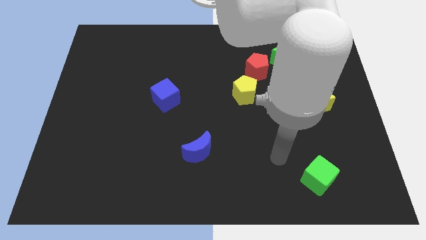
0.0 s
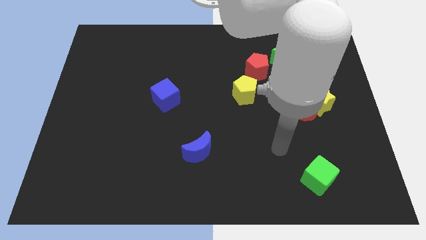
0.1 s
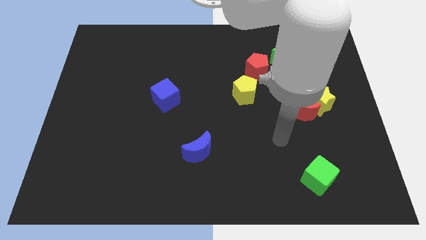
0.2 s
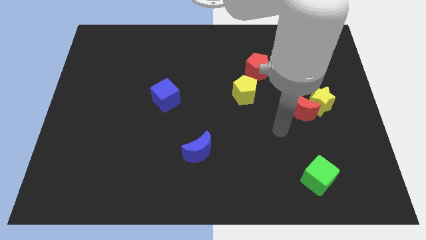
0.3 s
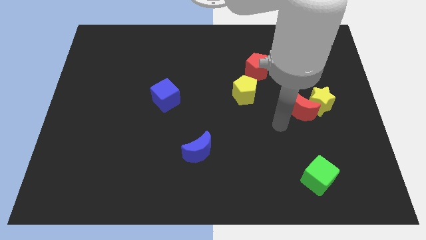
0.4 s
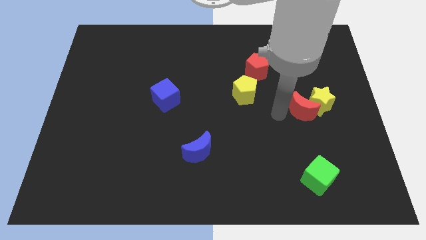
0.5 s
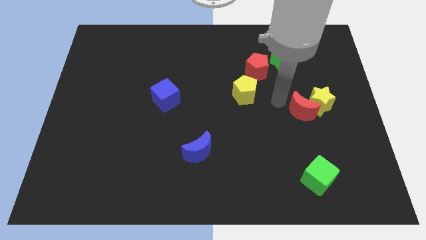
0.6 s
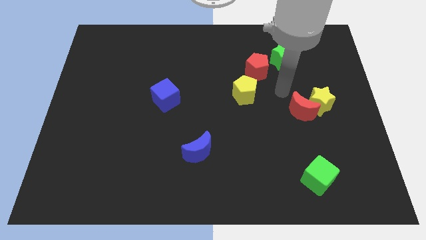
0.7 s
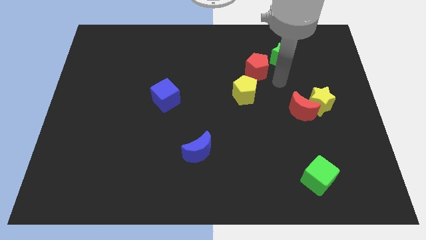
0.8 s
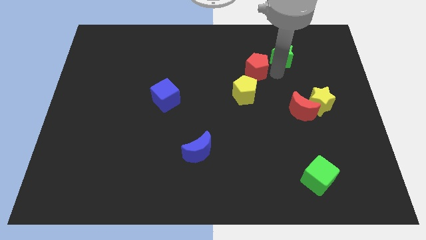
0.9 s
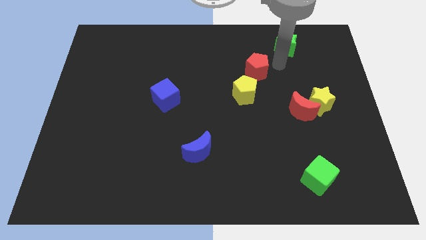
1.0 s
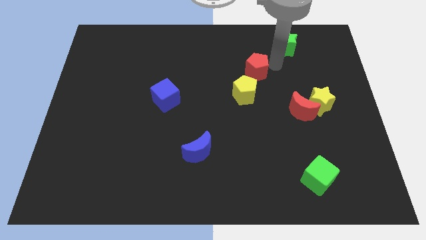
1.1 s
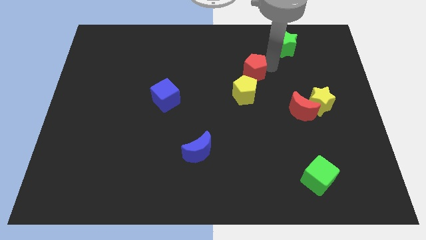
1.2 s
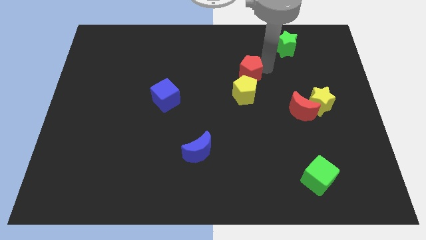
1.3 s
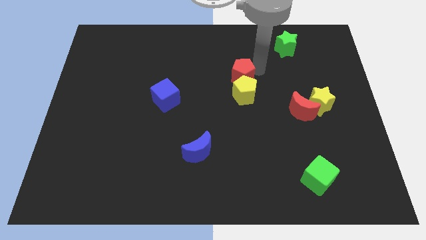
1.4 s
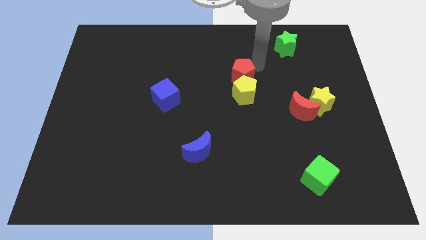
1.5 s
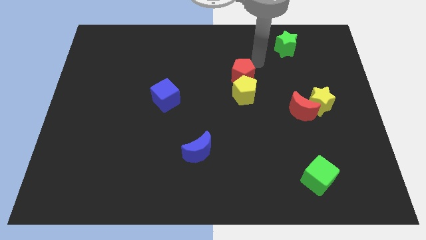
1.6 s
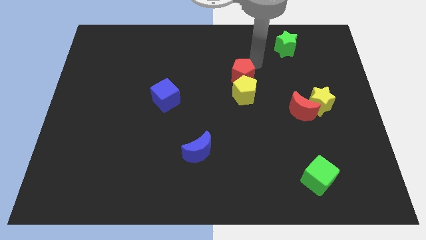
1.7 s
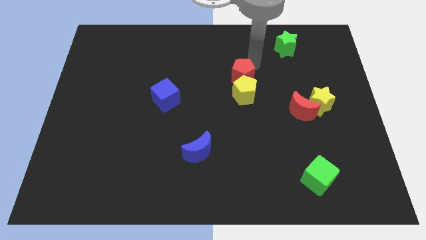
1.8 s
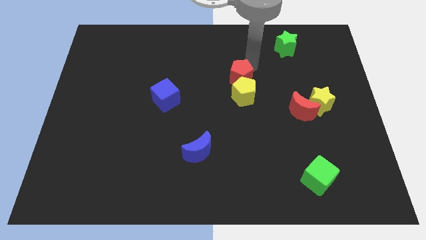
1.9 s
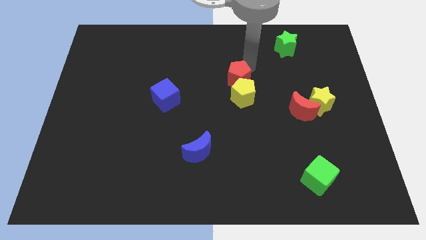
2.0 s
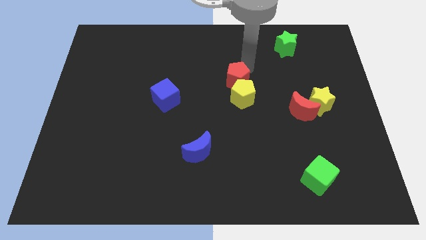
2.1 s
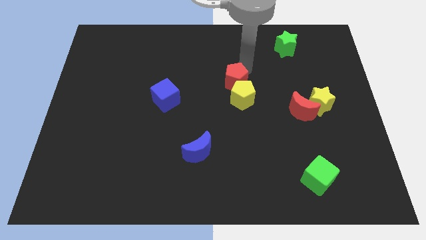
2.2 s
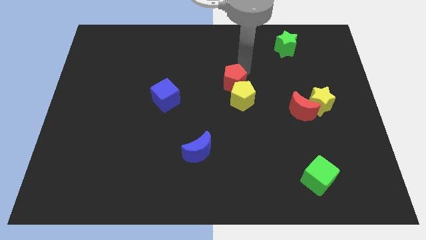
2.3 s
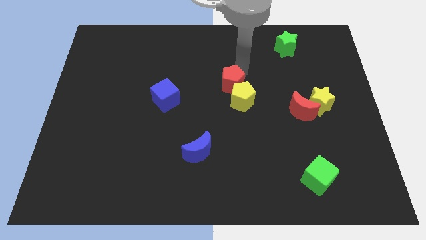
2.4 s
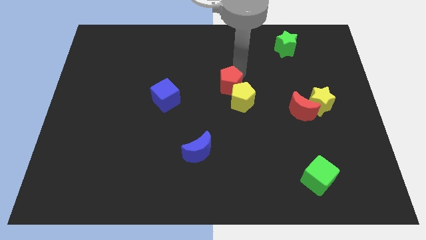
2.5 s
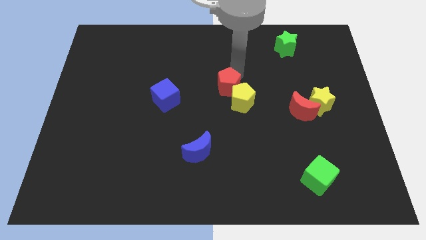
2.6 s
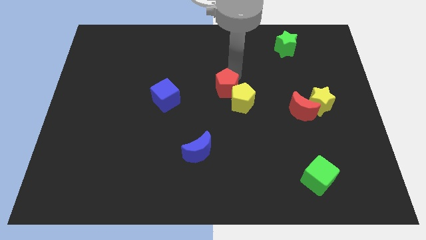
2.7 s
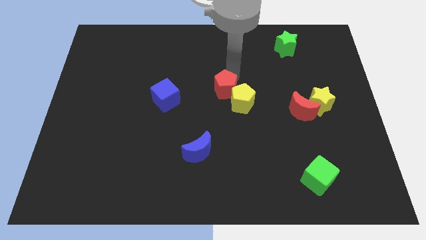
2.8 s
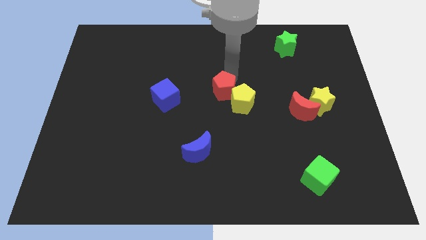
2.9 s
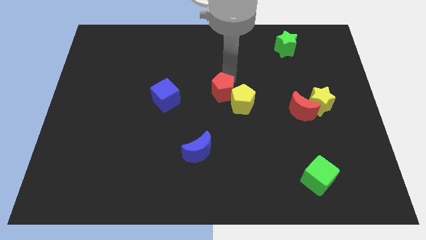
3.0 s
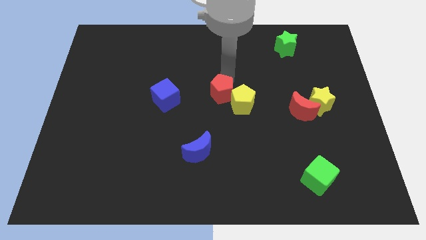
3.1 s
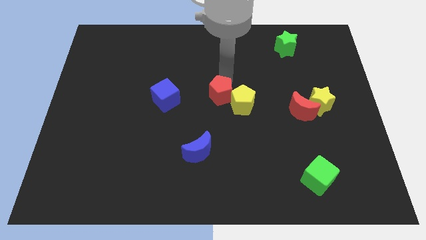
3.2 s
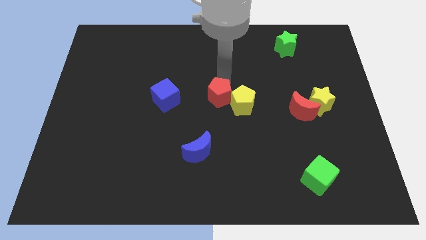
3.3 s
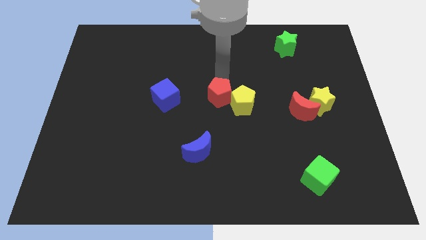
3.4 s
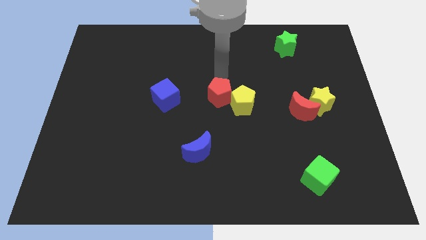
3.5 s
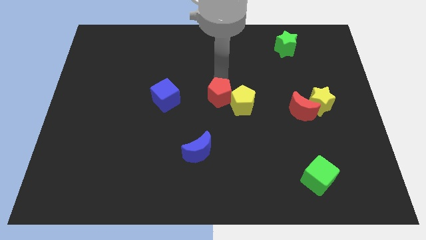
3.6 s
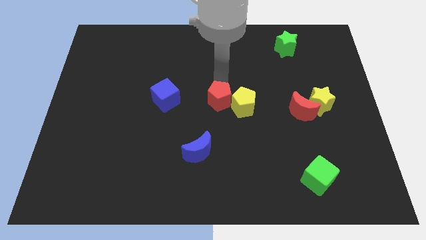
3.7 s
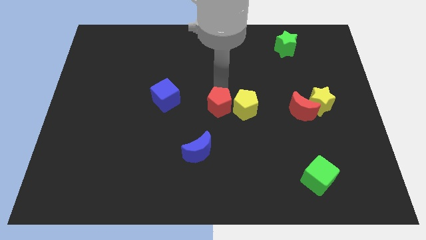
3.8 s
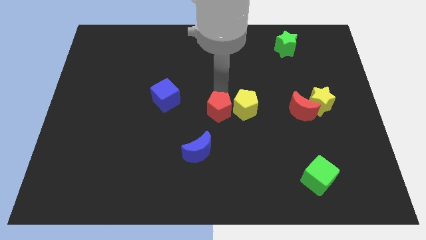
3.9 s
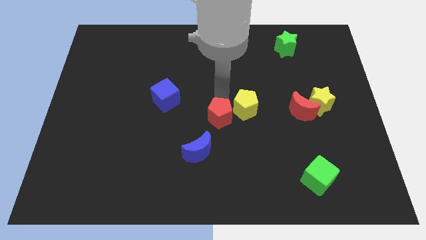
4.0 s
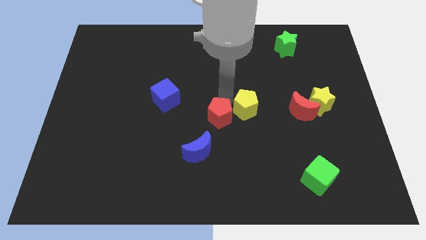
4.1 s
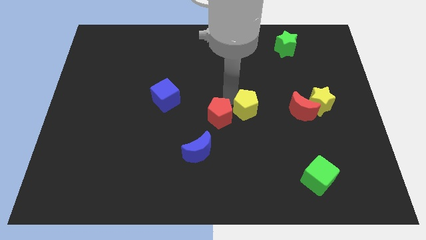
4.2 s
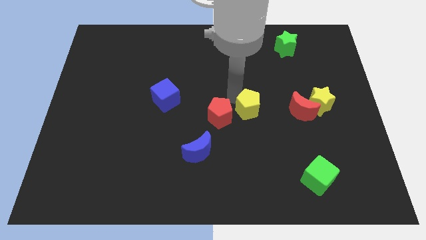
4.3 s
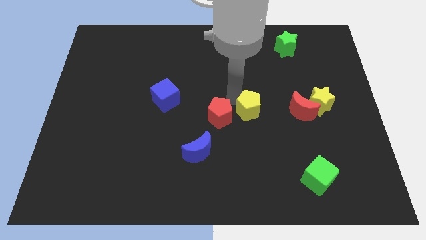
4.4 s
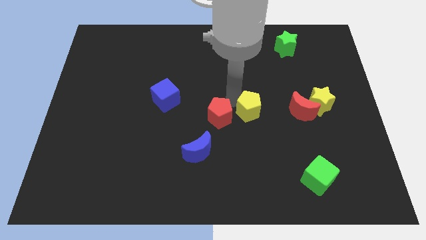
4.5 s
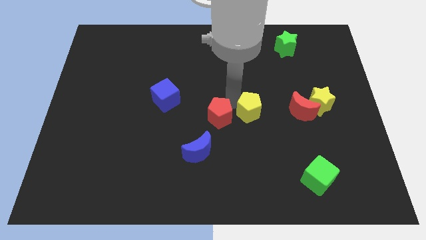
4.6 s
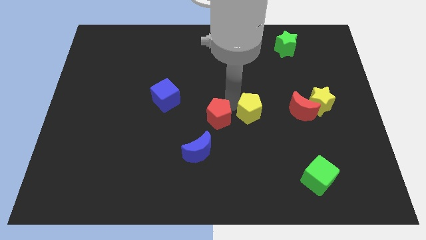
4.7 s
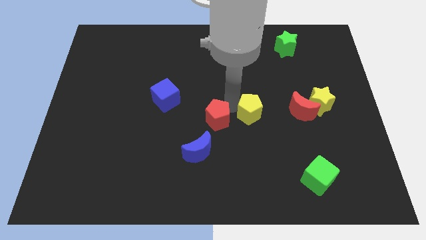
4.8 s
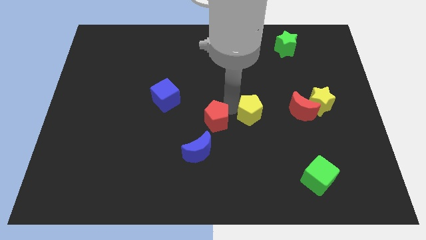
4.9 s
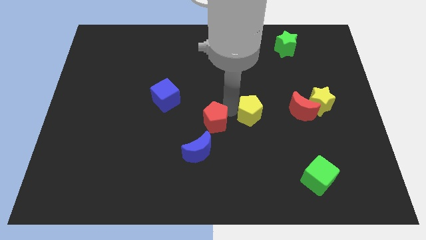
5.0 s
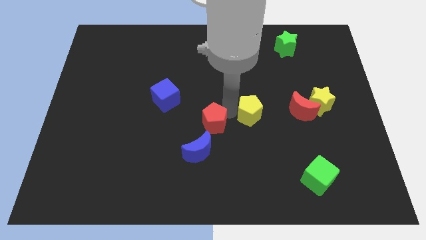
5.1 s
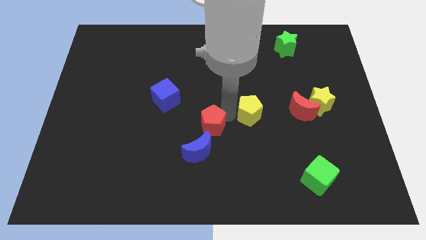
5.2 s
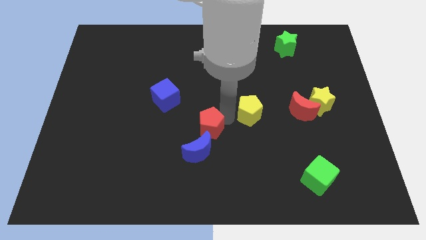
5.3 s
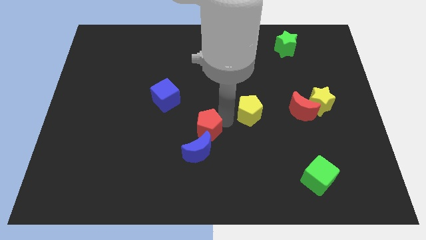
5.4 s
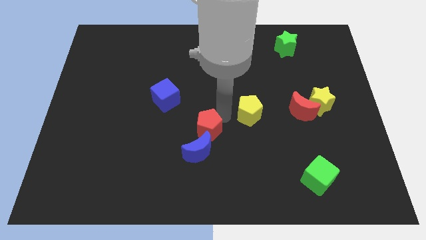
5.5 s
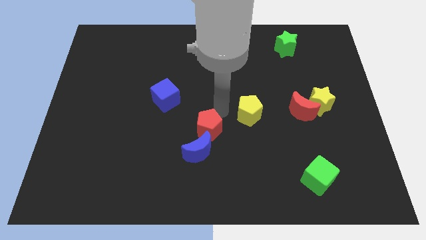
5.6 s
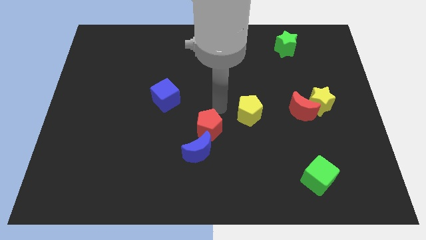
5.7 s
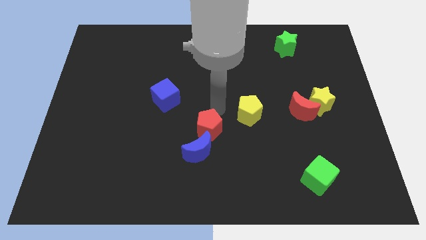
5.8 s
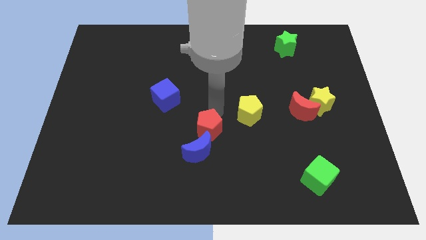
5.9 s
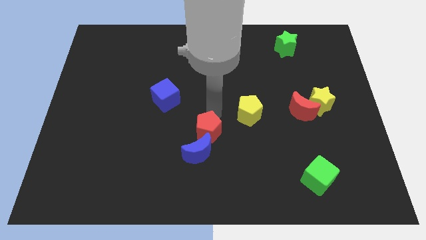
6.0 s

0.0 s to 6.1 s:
put the red pentagon next to the blue moon

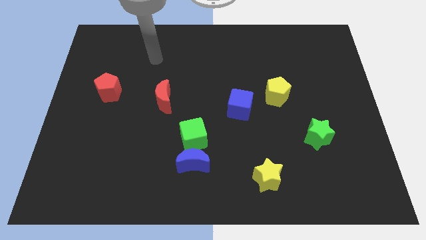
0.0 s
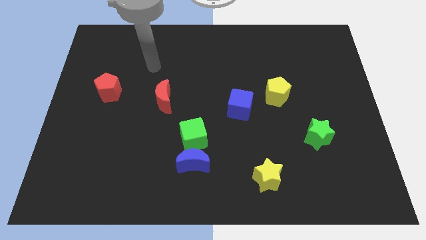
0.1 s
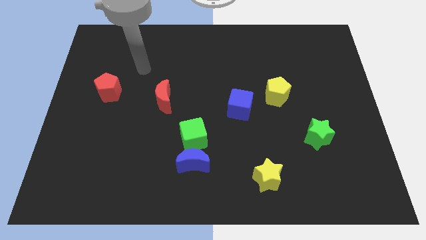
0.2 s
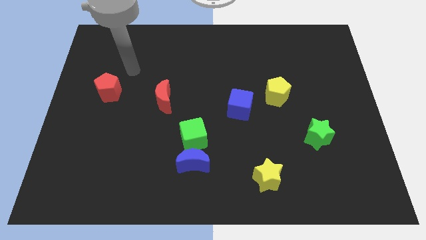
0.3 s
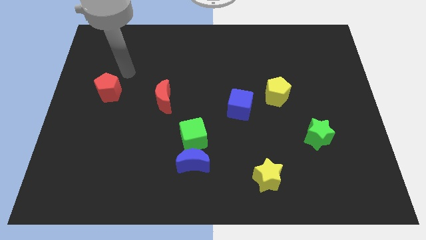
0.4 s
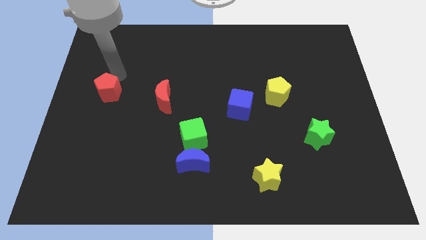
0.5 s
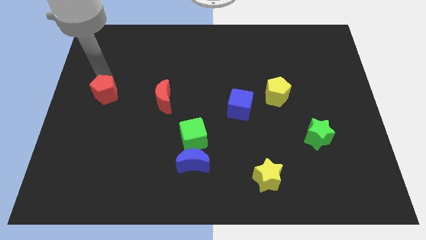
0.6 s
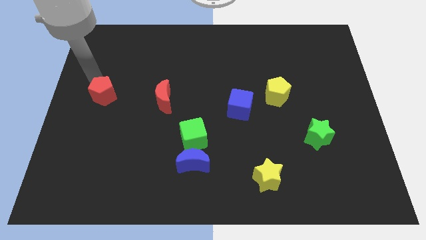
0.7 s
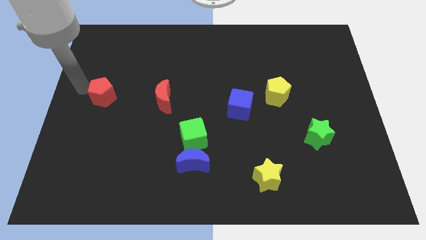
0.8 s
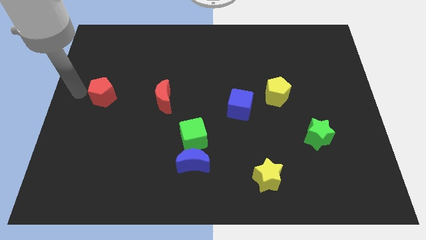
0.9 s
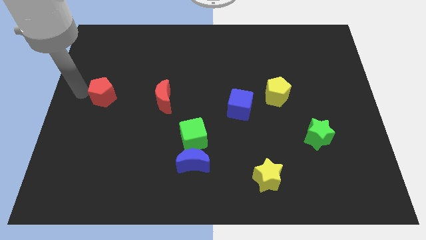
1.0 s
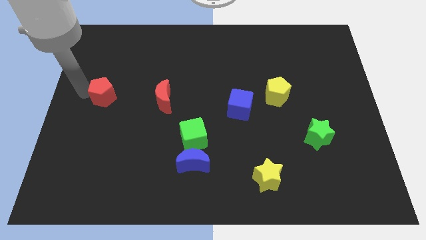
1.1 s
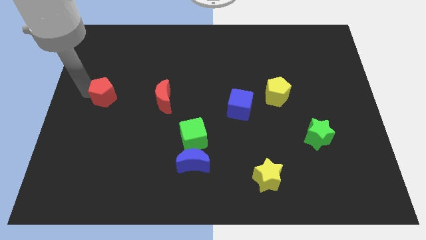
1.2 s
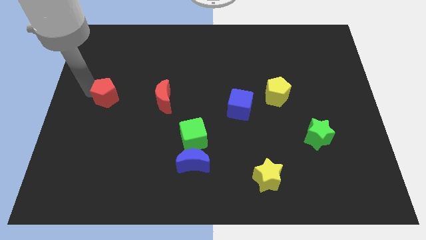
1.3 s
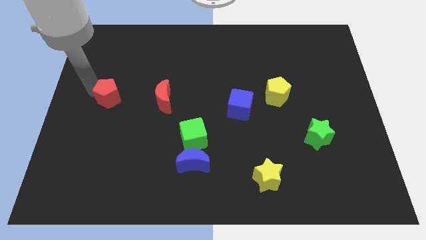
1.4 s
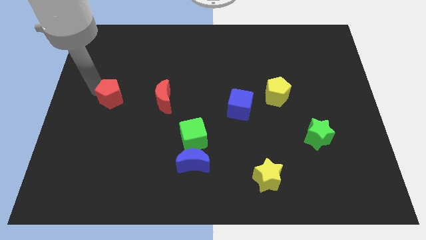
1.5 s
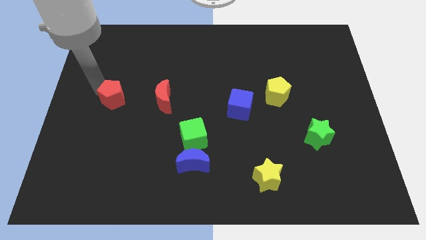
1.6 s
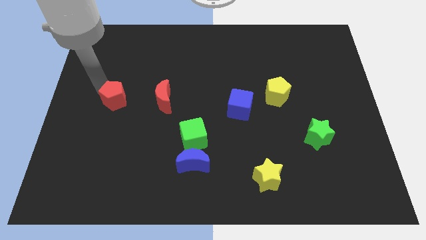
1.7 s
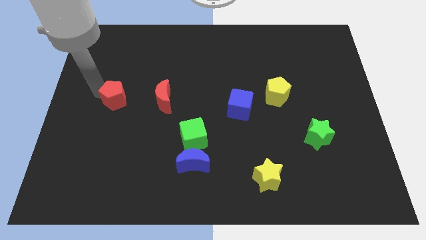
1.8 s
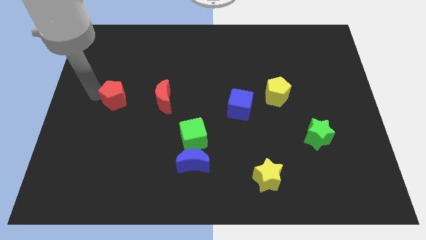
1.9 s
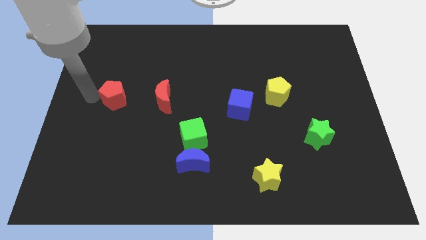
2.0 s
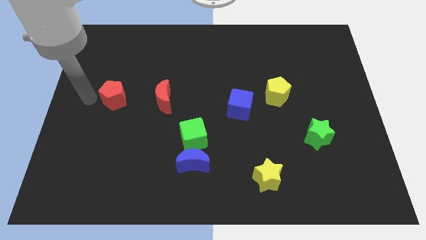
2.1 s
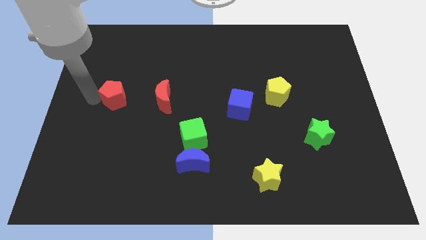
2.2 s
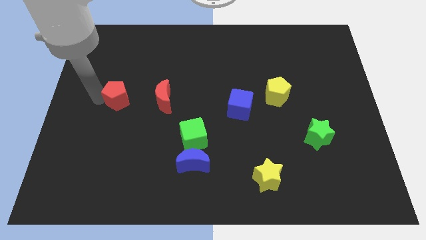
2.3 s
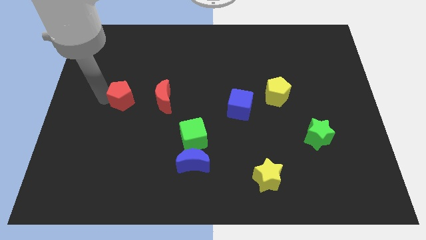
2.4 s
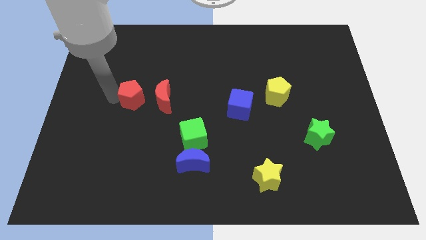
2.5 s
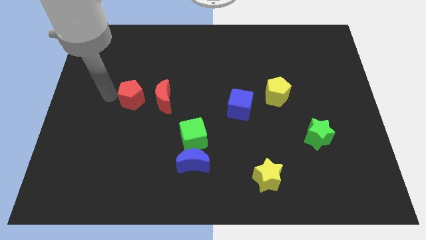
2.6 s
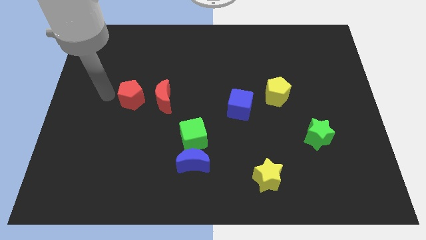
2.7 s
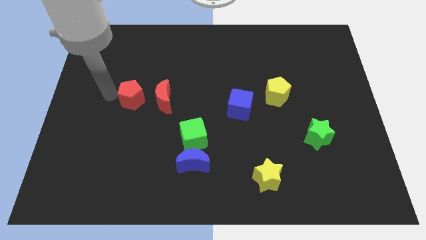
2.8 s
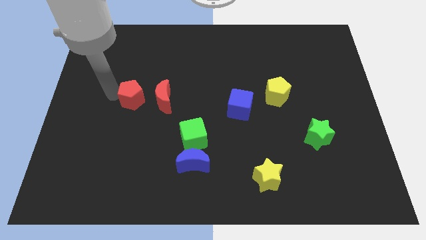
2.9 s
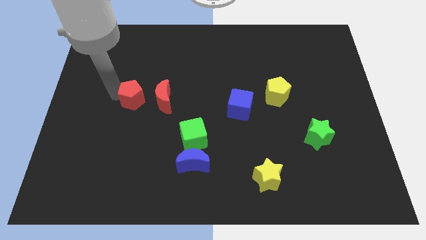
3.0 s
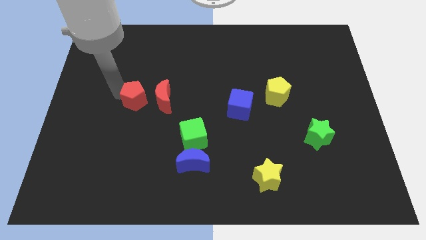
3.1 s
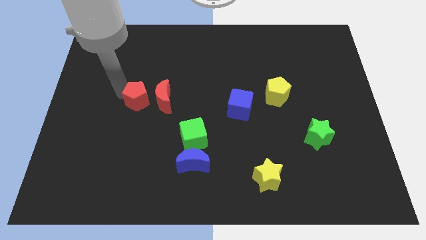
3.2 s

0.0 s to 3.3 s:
slide the red pentagon towards the red moon
